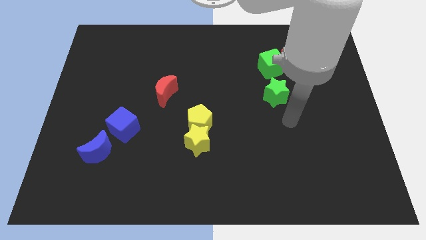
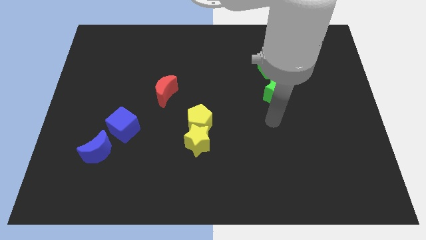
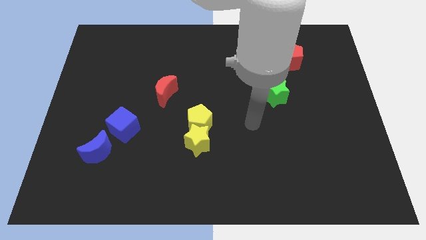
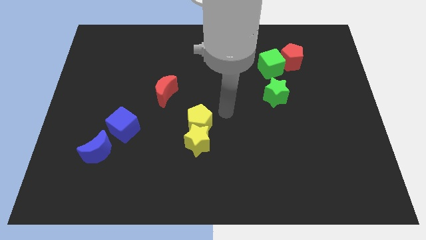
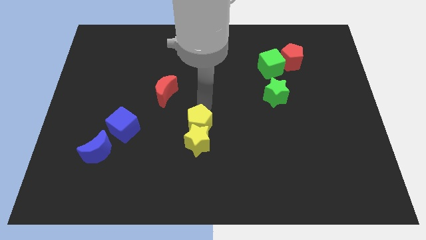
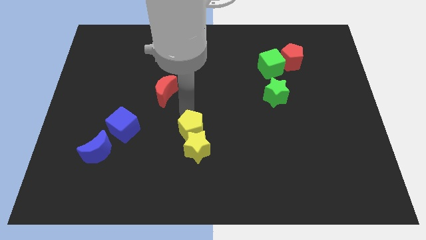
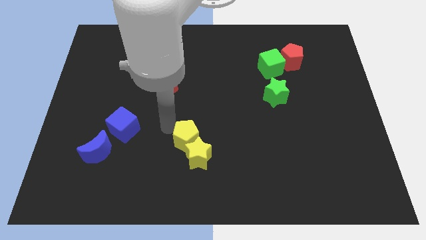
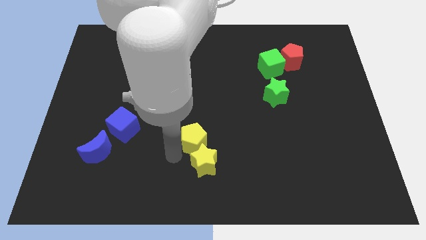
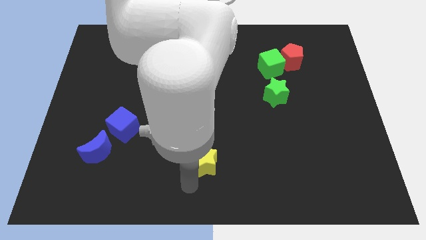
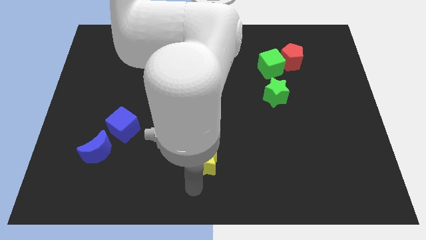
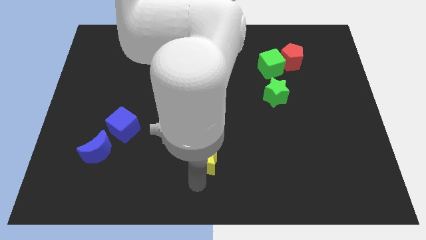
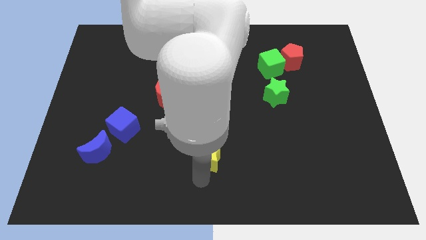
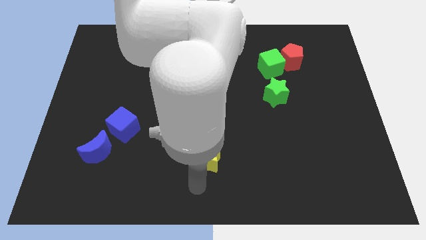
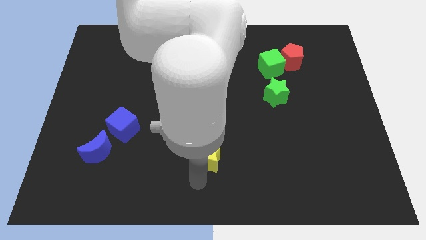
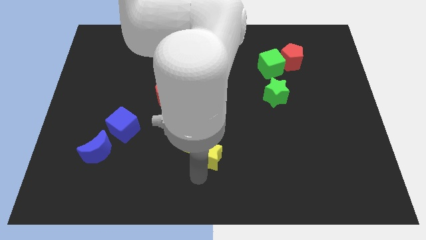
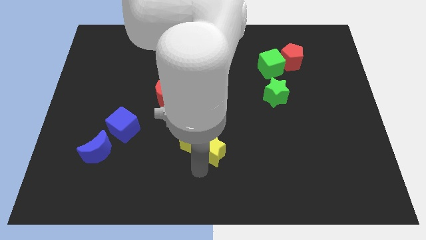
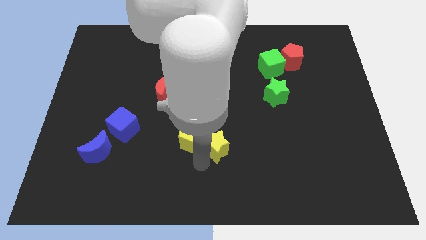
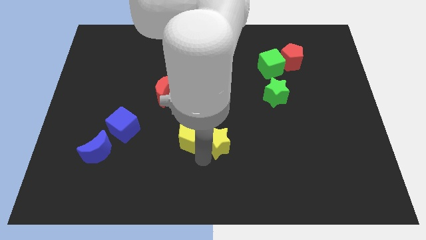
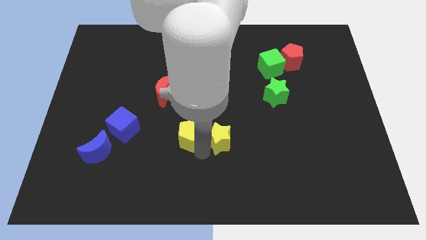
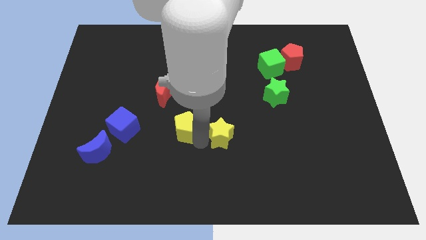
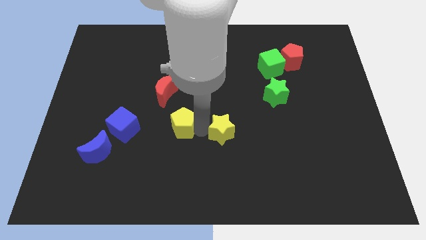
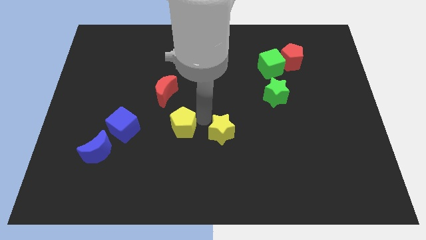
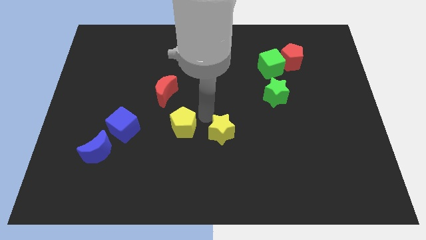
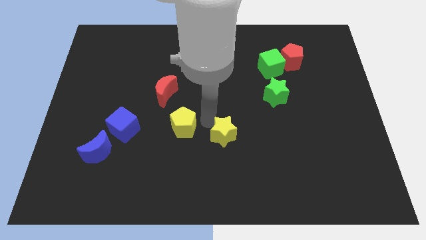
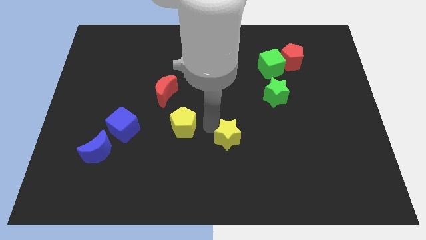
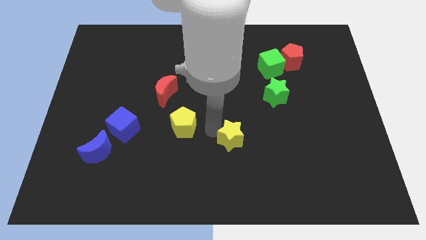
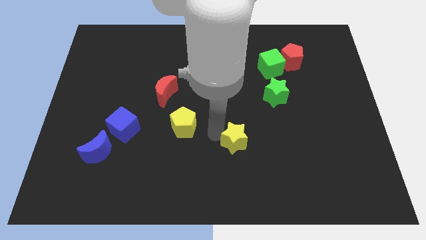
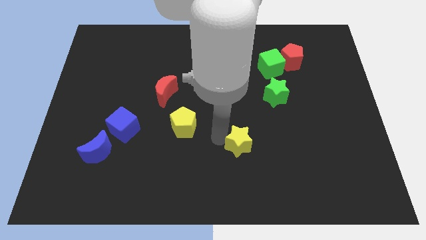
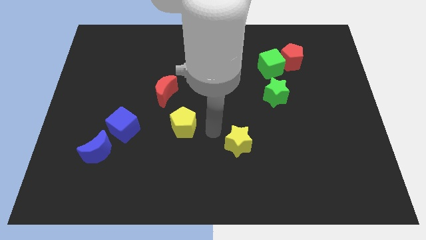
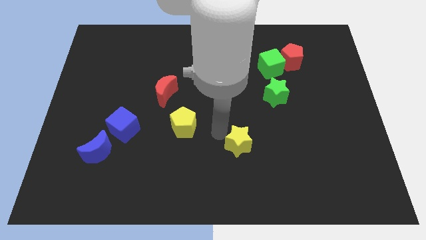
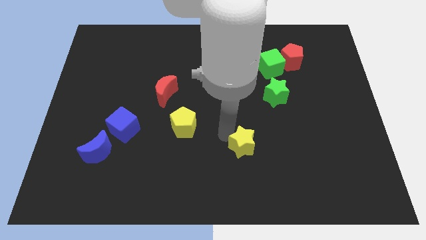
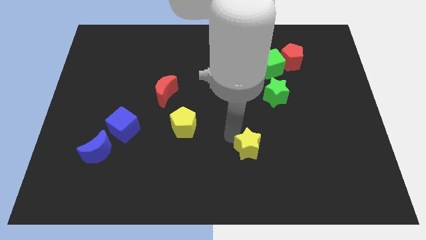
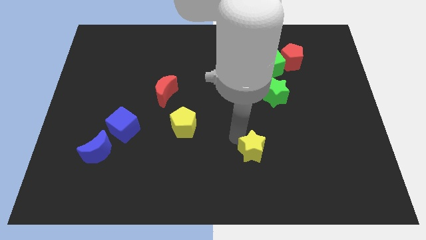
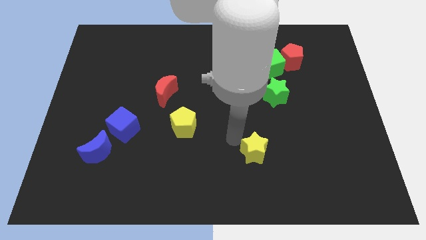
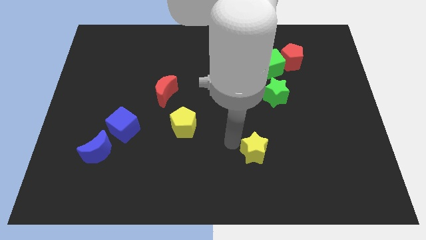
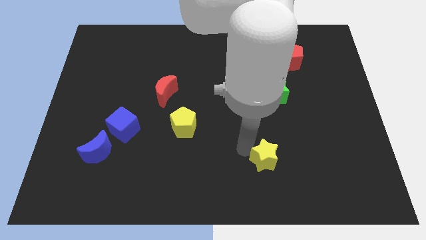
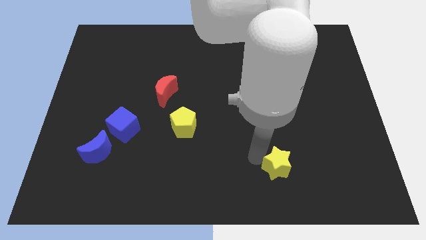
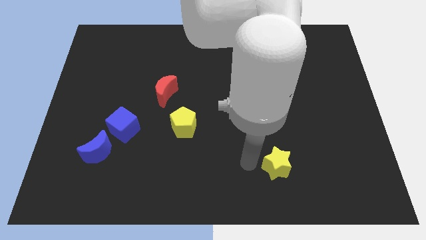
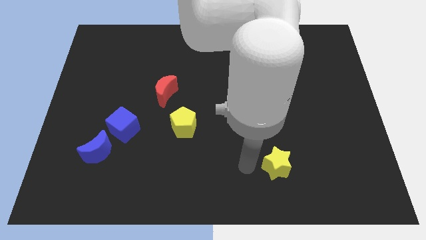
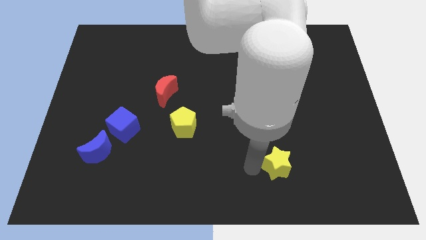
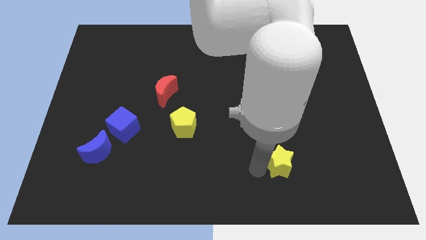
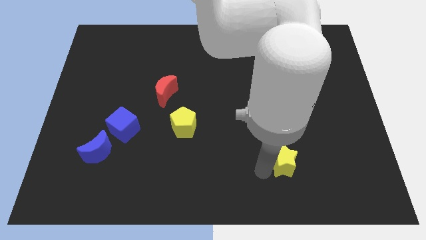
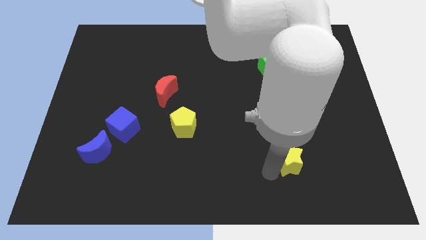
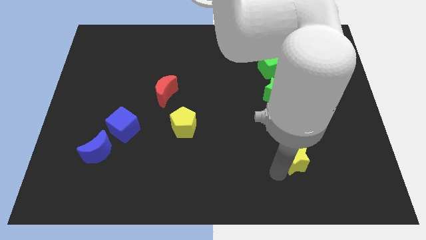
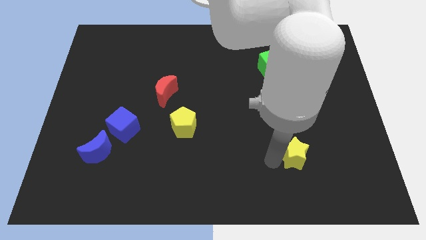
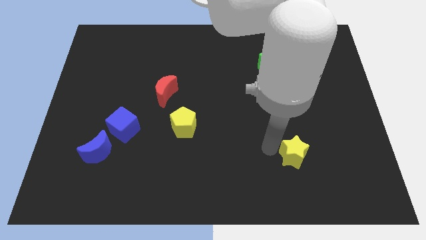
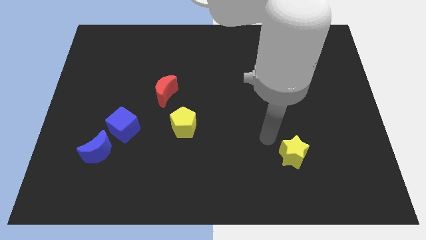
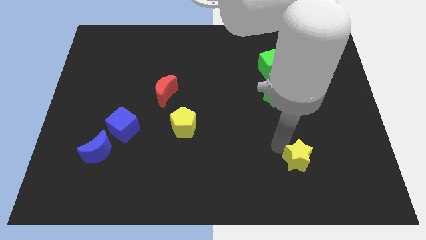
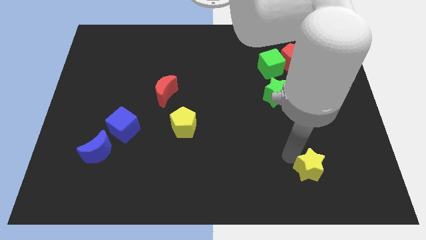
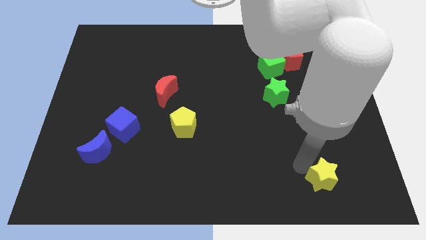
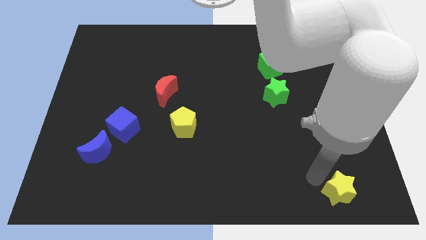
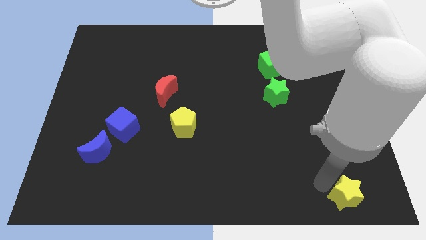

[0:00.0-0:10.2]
move the yellow star to the bottom right

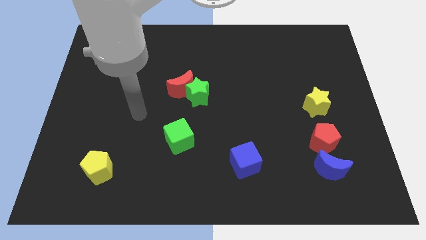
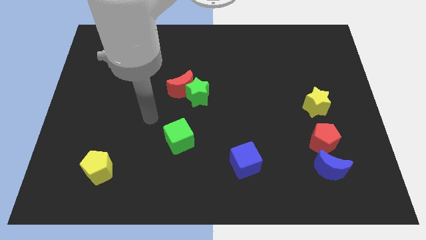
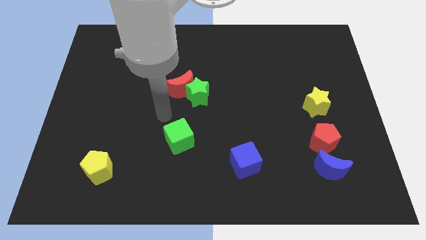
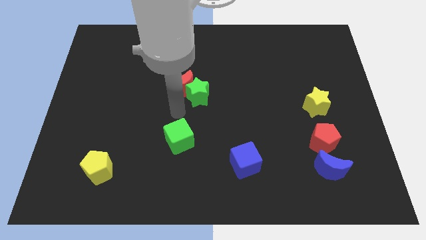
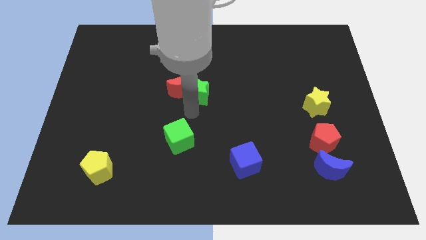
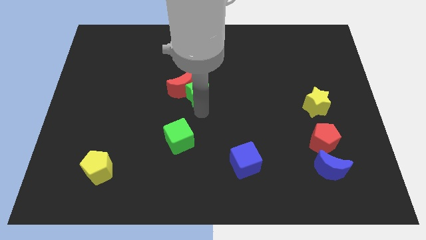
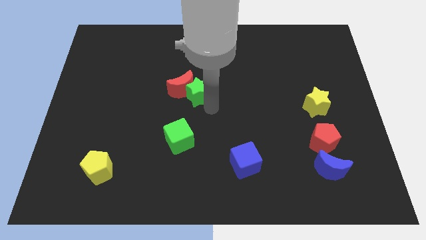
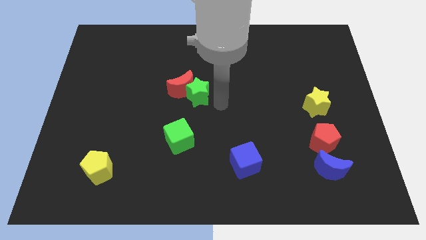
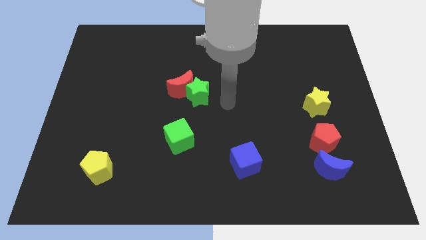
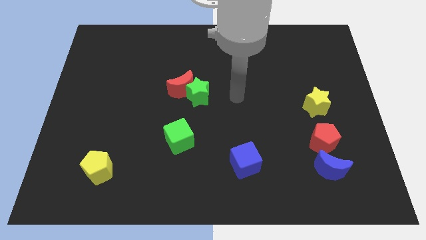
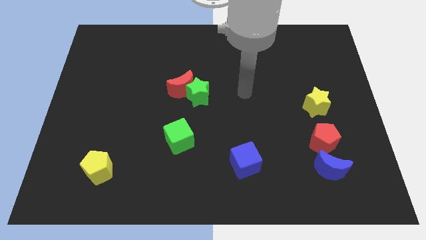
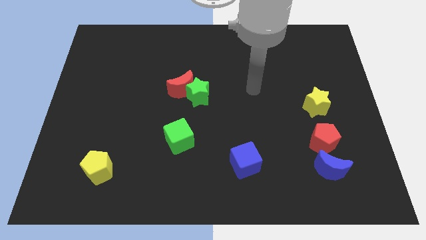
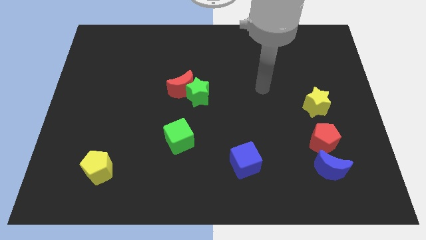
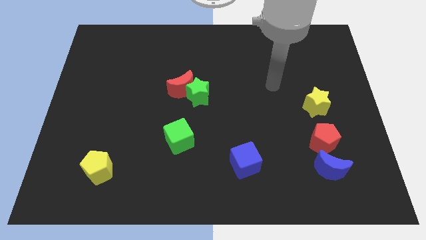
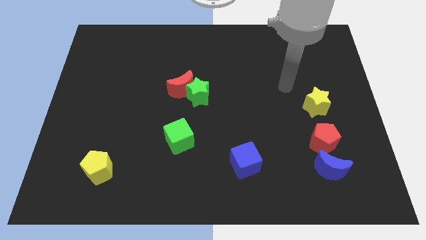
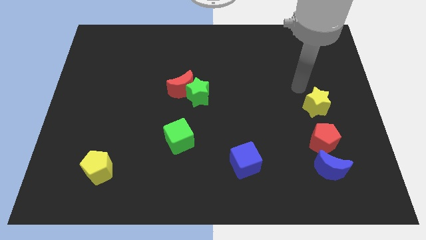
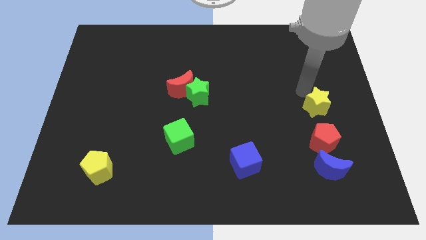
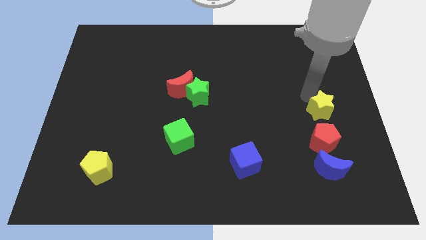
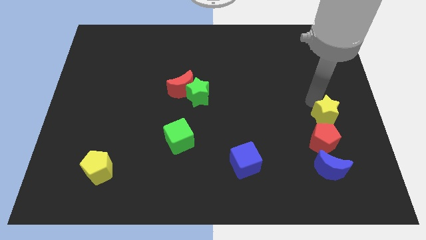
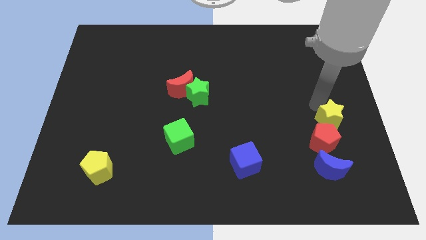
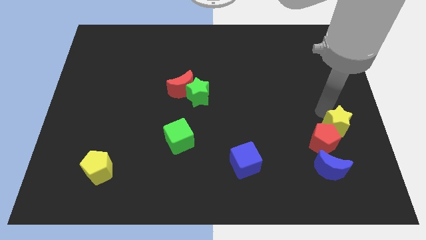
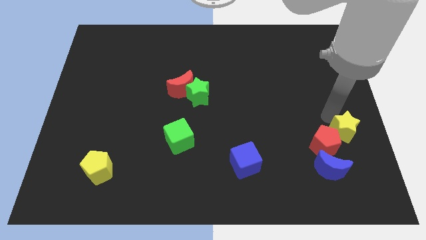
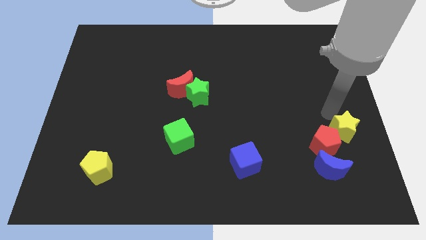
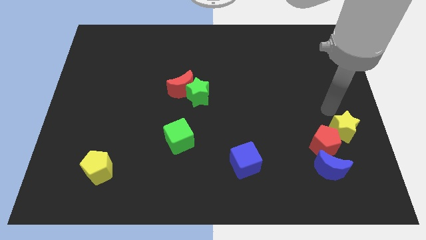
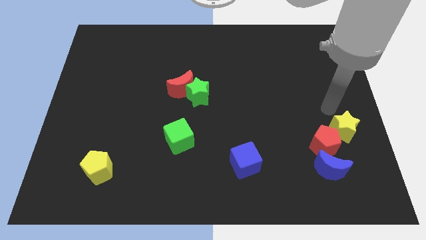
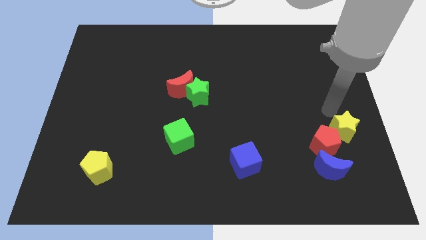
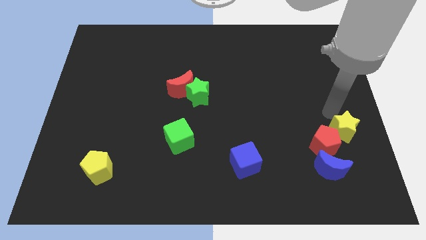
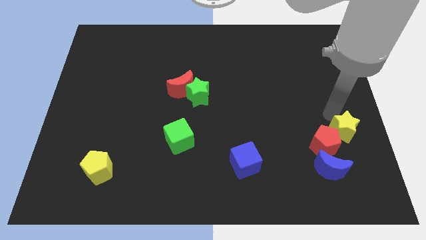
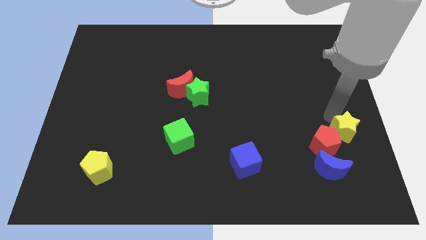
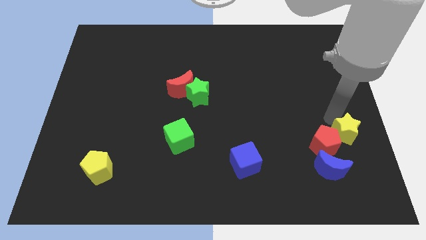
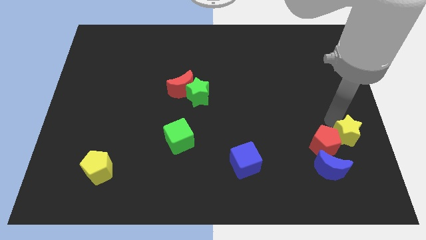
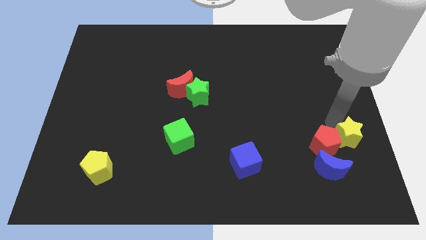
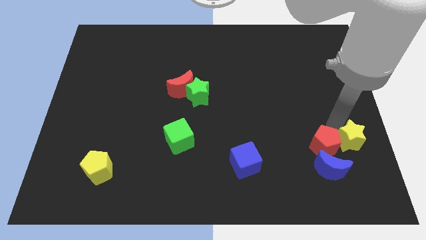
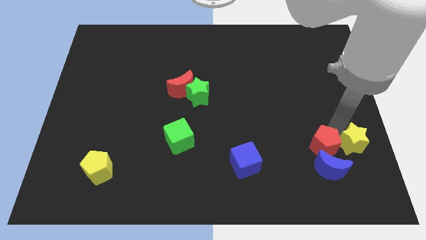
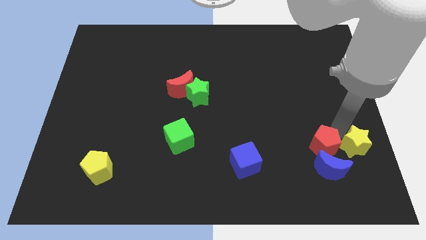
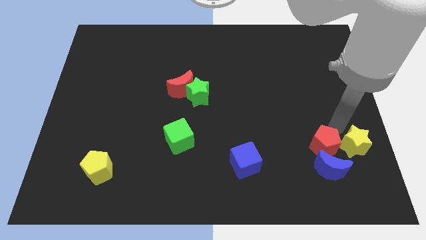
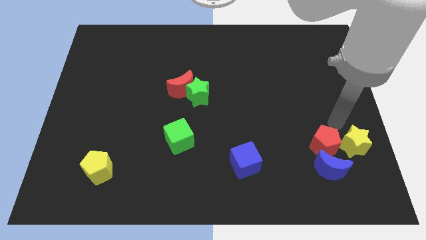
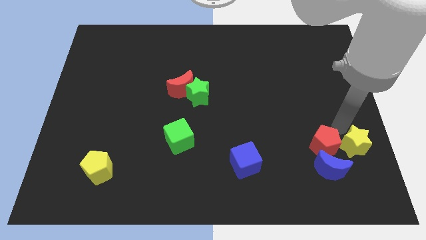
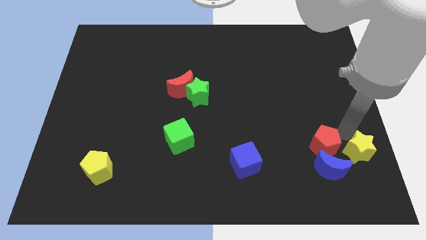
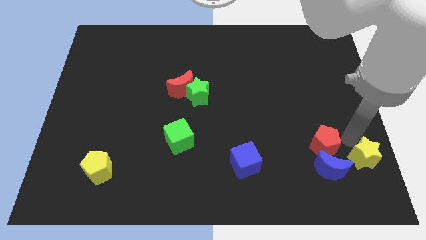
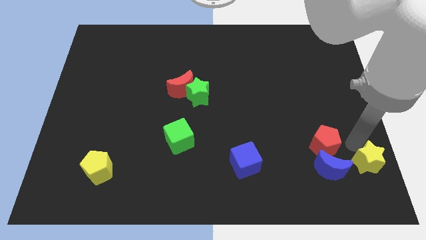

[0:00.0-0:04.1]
put the yellow star to the bottom right corner
